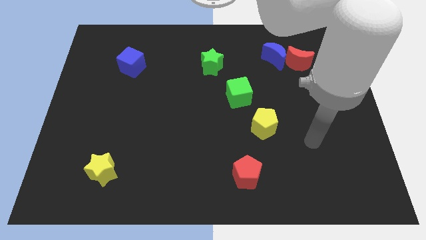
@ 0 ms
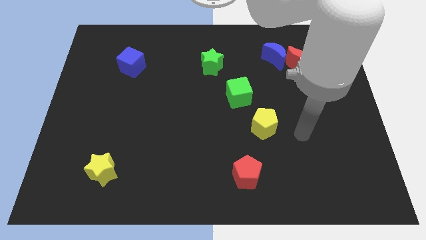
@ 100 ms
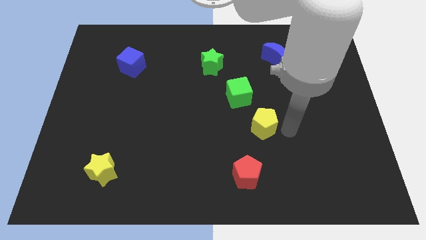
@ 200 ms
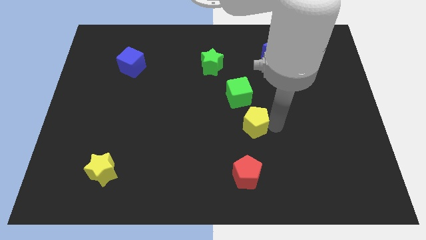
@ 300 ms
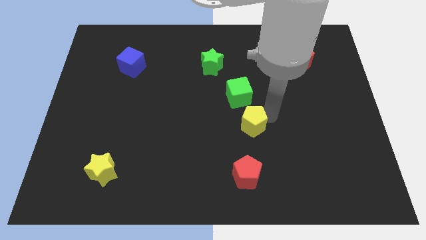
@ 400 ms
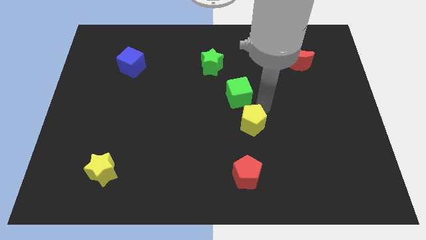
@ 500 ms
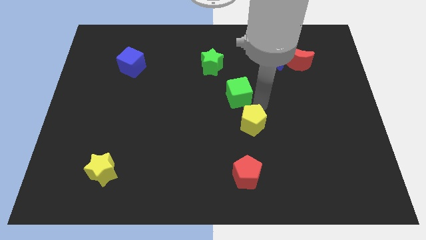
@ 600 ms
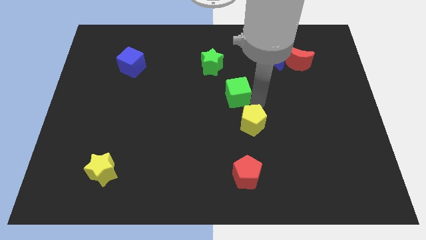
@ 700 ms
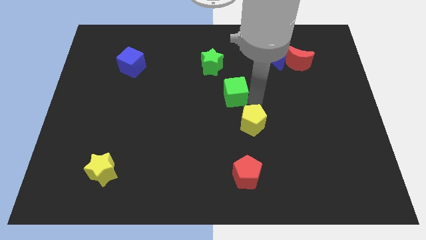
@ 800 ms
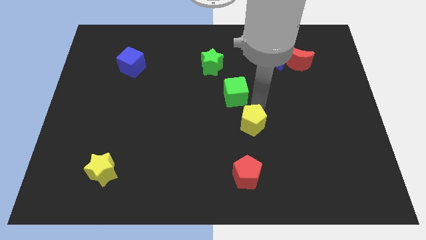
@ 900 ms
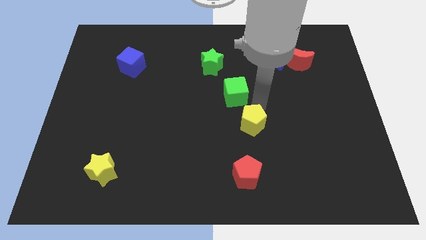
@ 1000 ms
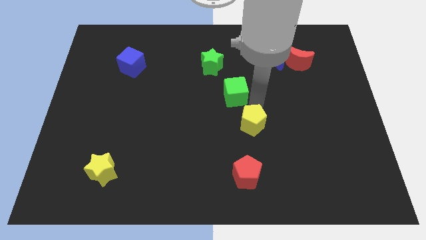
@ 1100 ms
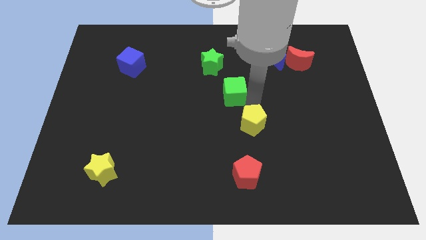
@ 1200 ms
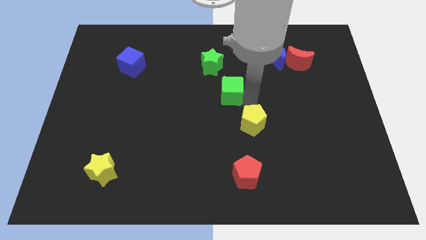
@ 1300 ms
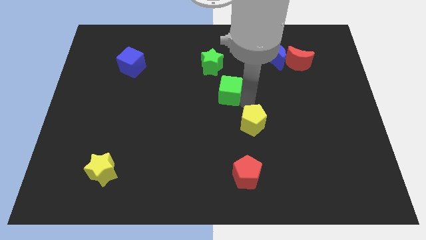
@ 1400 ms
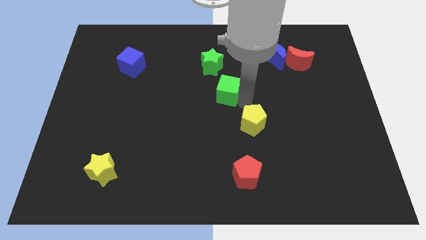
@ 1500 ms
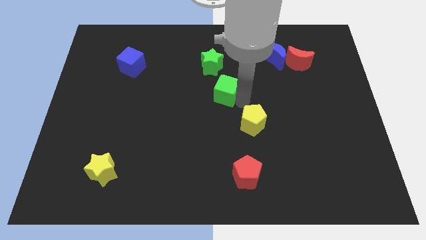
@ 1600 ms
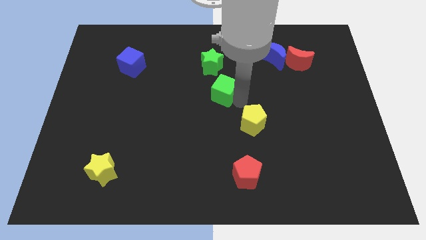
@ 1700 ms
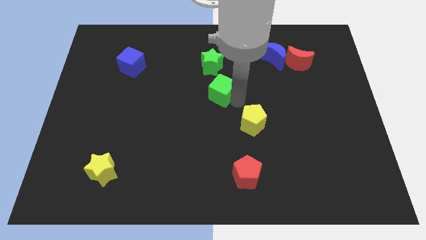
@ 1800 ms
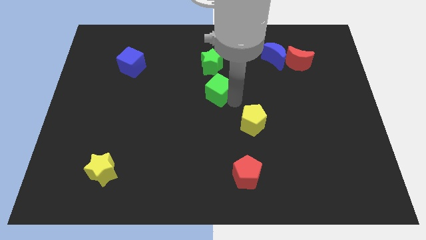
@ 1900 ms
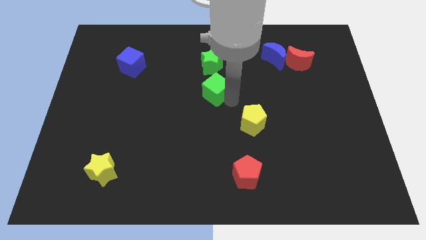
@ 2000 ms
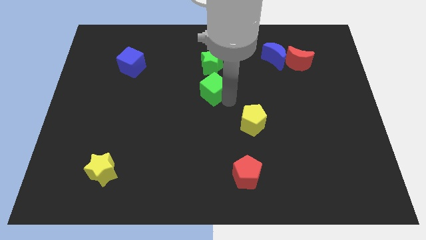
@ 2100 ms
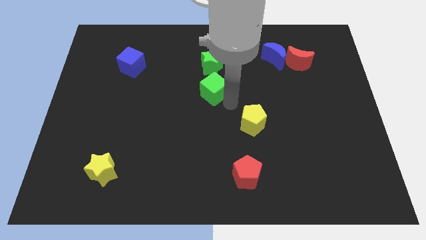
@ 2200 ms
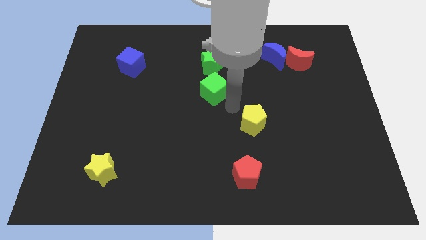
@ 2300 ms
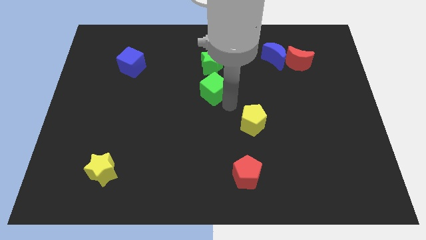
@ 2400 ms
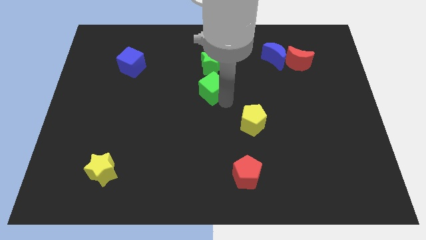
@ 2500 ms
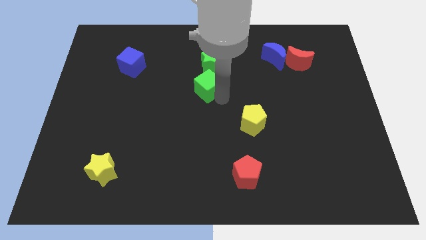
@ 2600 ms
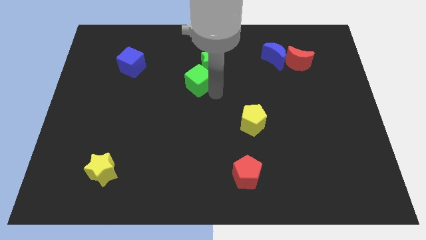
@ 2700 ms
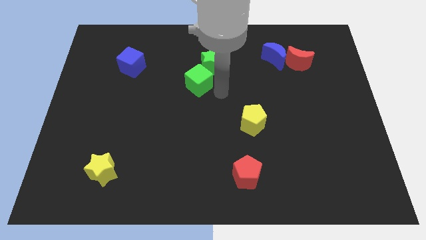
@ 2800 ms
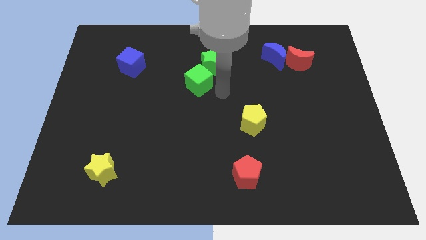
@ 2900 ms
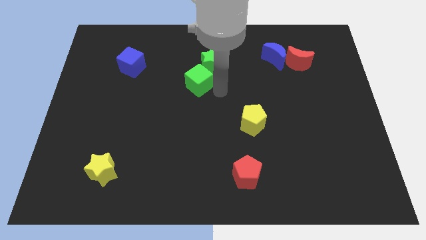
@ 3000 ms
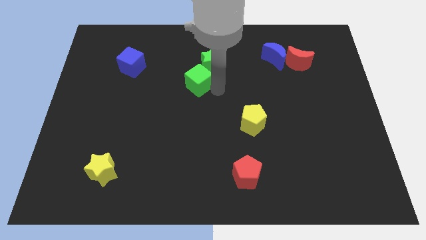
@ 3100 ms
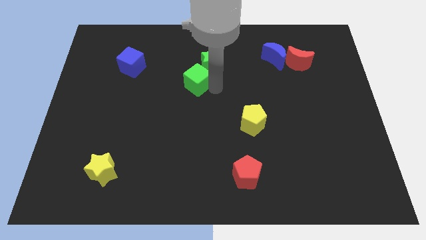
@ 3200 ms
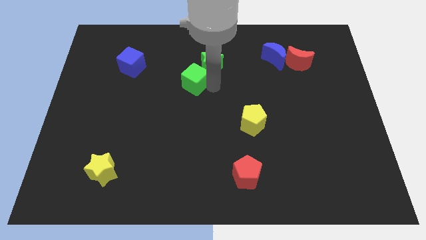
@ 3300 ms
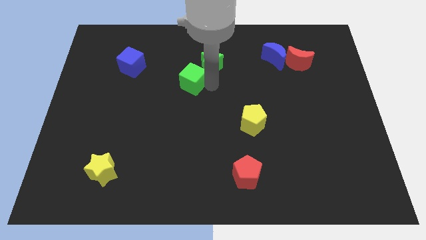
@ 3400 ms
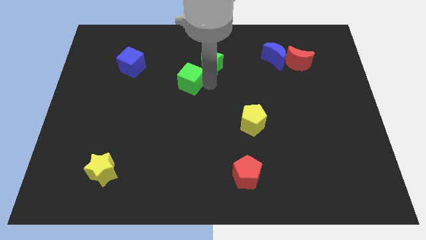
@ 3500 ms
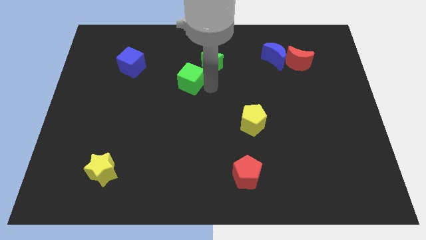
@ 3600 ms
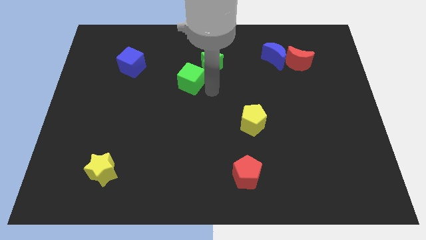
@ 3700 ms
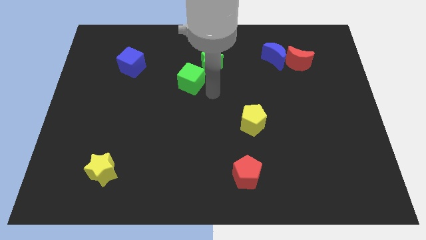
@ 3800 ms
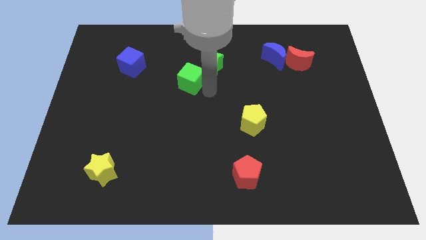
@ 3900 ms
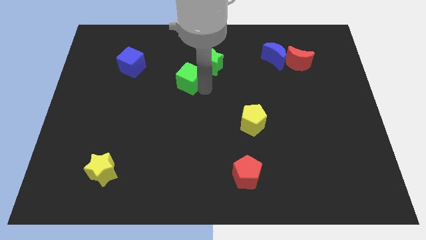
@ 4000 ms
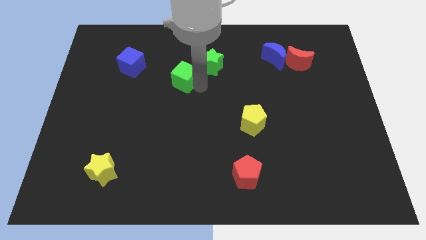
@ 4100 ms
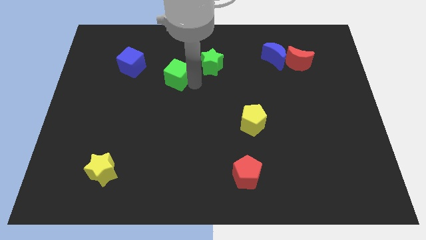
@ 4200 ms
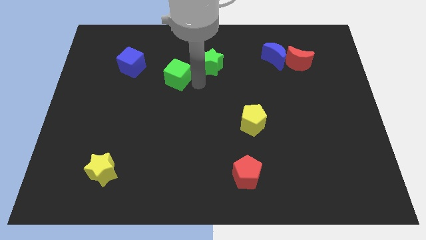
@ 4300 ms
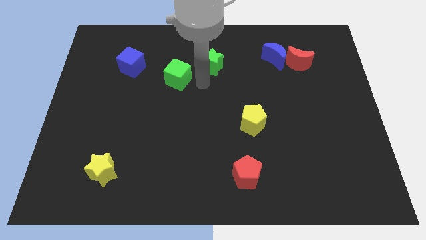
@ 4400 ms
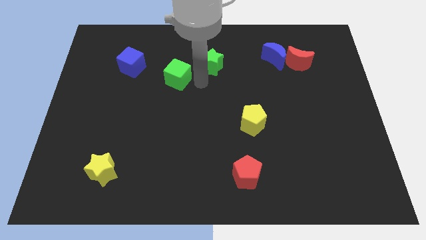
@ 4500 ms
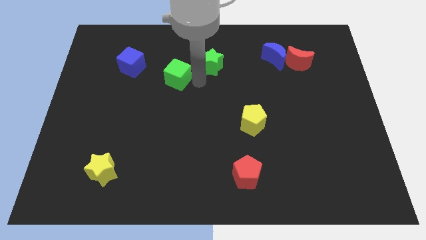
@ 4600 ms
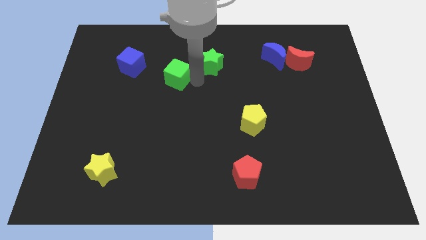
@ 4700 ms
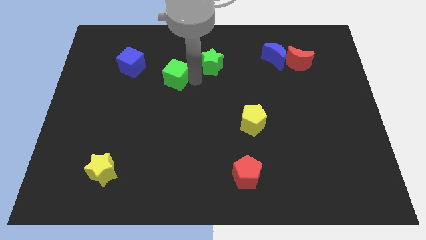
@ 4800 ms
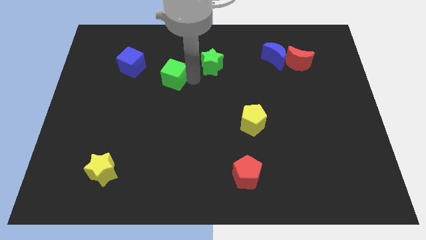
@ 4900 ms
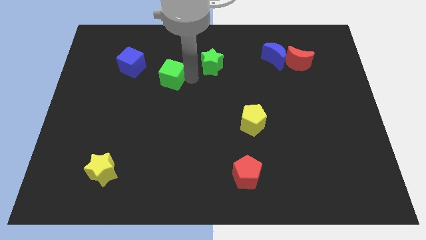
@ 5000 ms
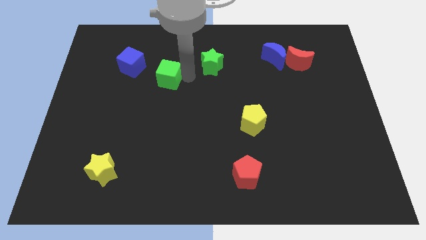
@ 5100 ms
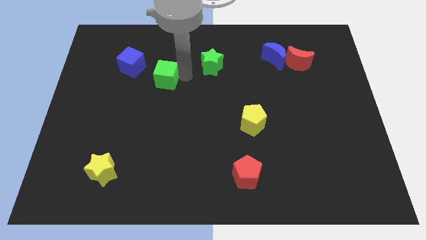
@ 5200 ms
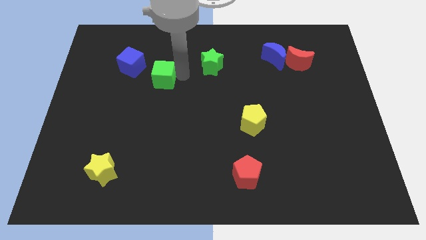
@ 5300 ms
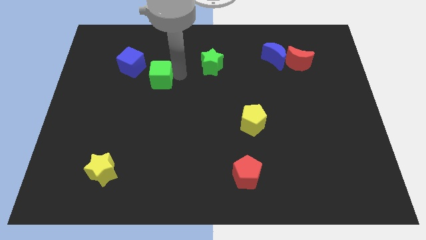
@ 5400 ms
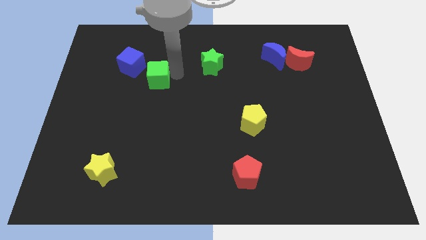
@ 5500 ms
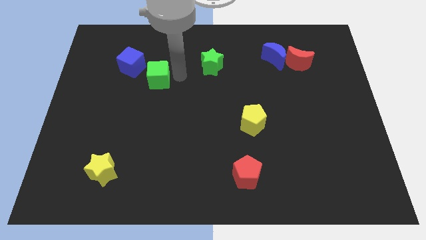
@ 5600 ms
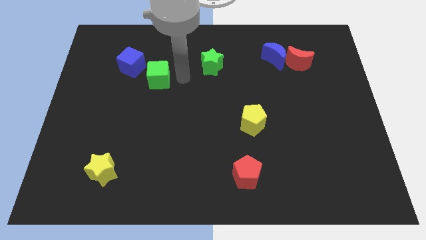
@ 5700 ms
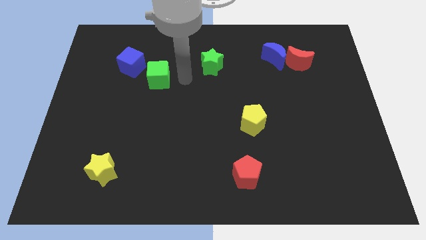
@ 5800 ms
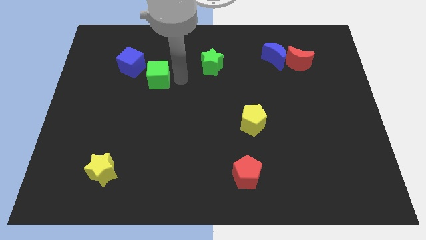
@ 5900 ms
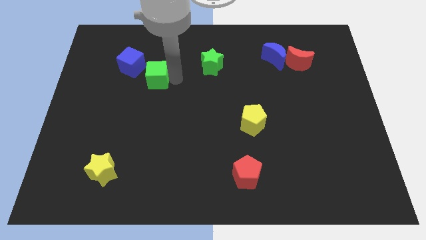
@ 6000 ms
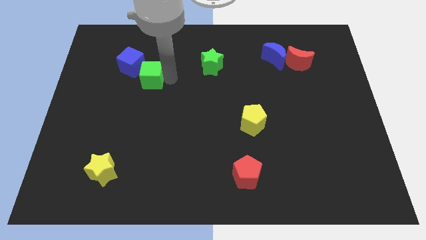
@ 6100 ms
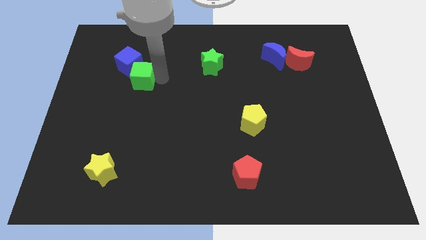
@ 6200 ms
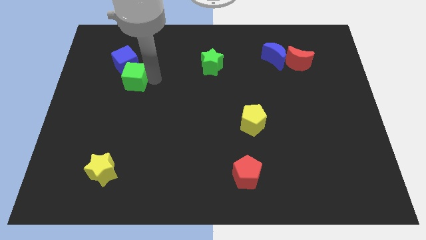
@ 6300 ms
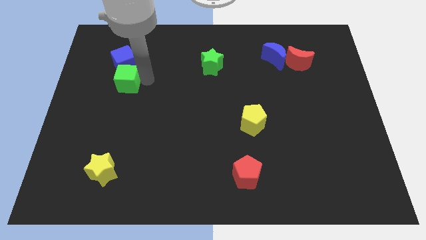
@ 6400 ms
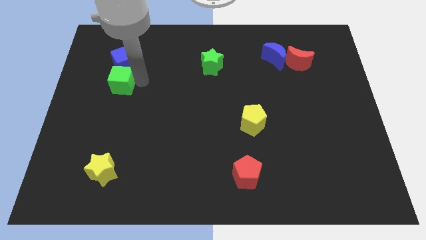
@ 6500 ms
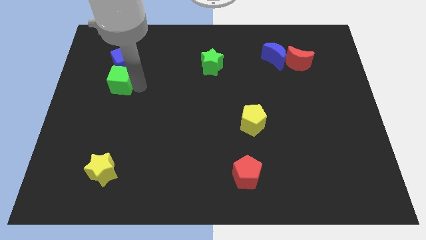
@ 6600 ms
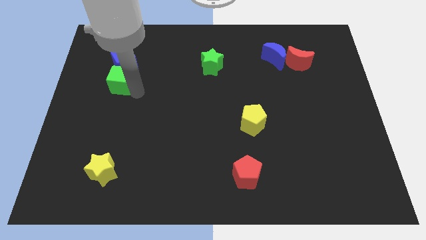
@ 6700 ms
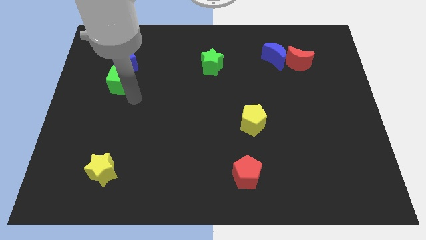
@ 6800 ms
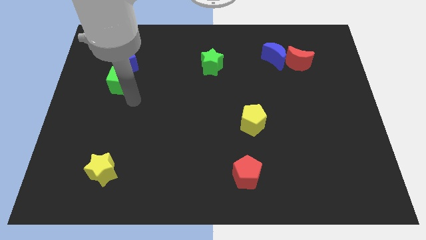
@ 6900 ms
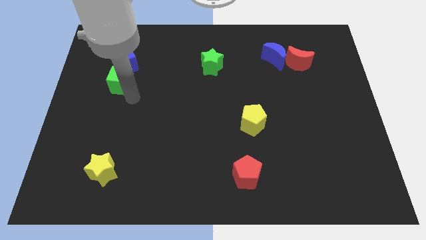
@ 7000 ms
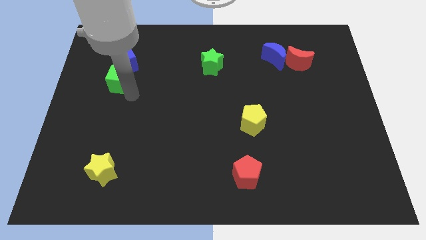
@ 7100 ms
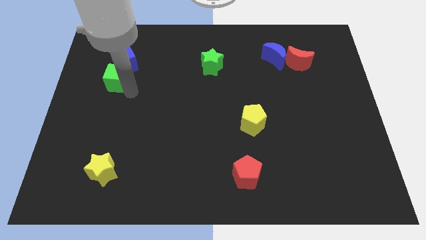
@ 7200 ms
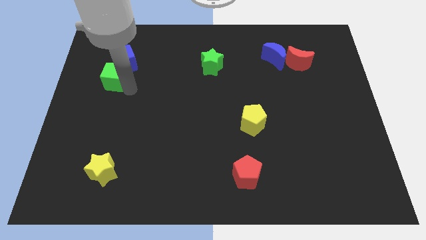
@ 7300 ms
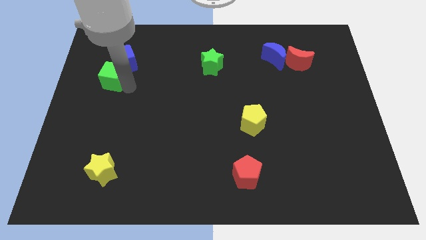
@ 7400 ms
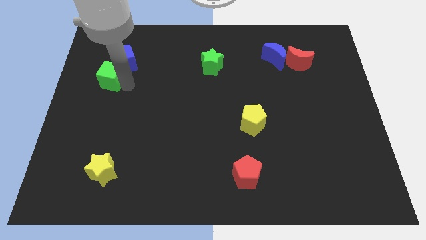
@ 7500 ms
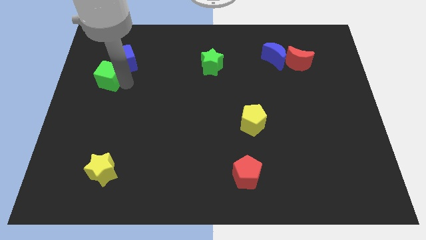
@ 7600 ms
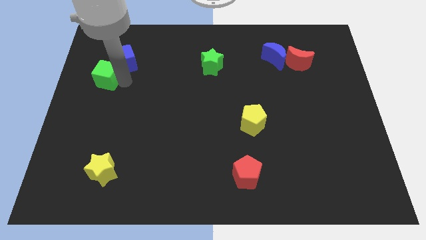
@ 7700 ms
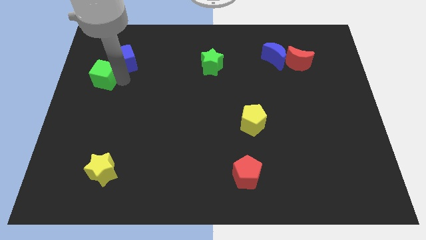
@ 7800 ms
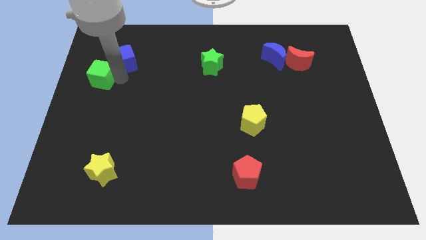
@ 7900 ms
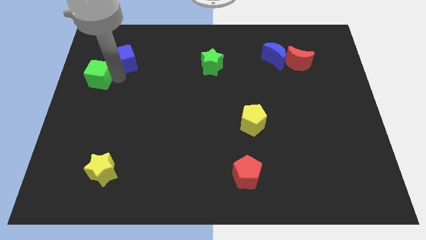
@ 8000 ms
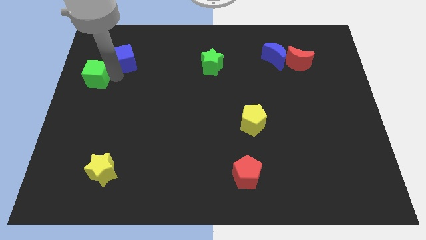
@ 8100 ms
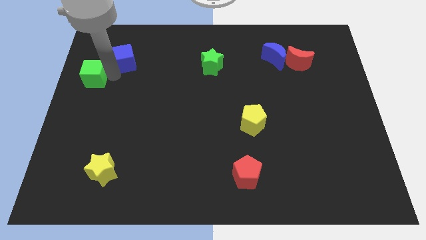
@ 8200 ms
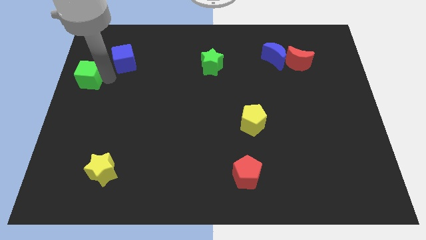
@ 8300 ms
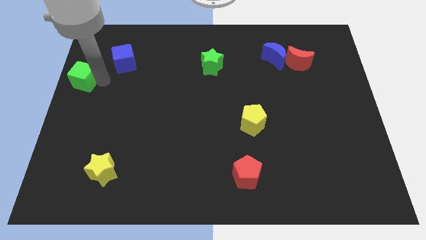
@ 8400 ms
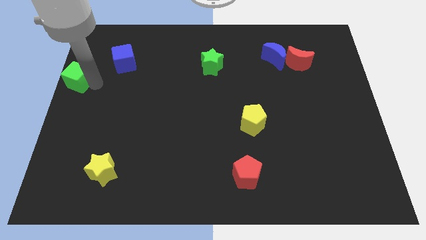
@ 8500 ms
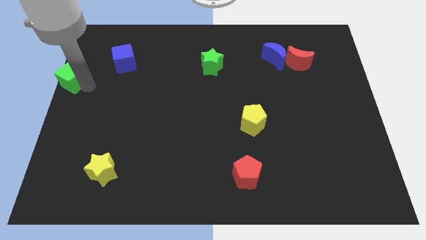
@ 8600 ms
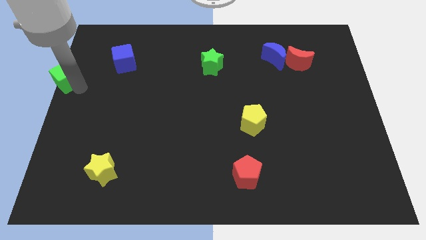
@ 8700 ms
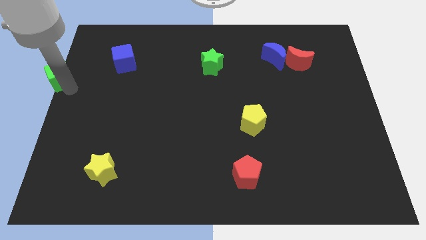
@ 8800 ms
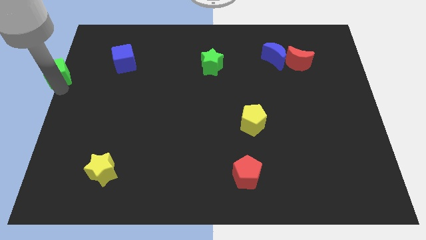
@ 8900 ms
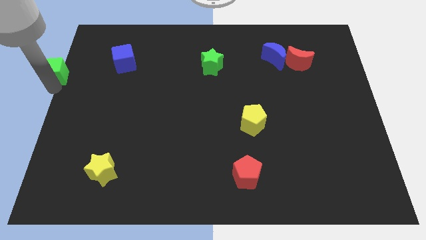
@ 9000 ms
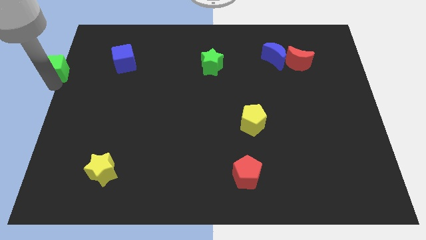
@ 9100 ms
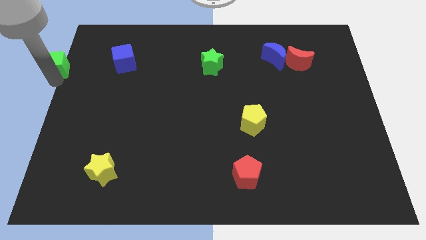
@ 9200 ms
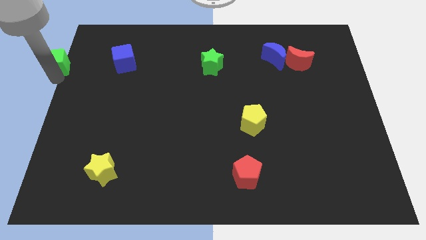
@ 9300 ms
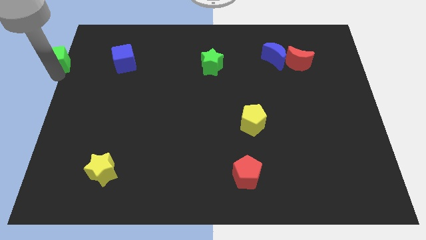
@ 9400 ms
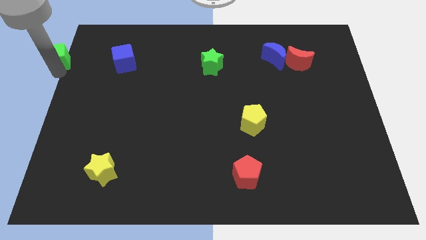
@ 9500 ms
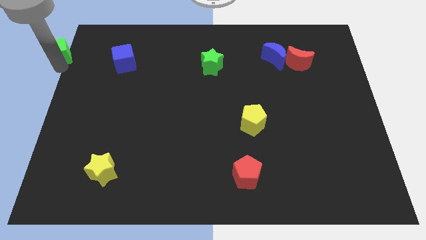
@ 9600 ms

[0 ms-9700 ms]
move the green cube to the top left of the board
